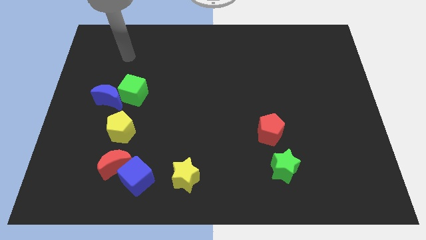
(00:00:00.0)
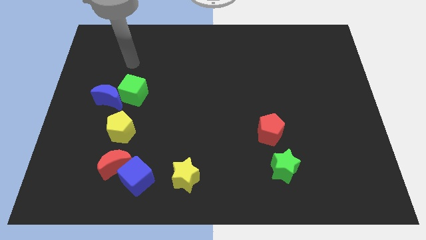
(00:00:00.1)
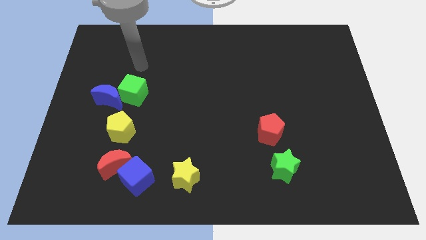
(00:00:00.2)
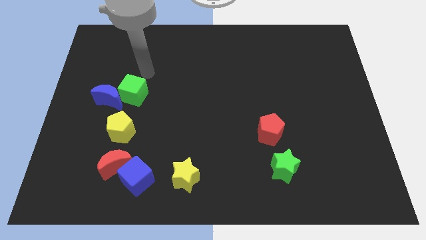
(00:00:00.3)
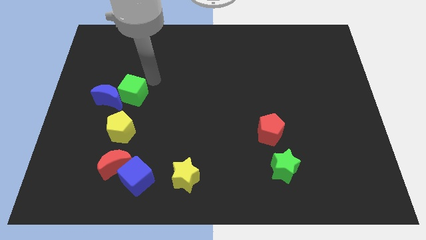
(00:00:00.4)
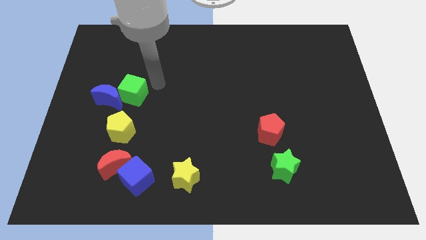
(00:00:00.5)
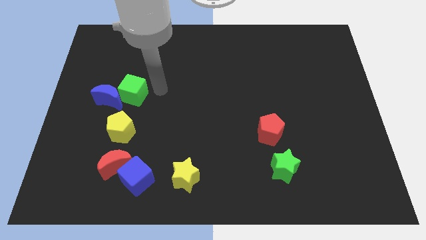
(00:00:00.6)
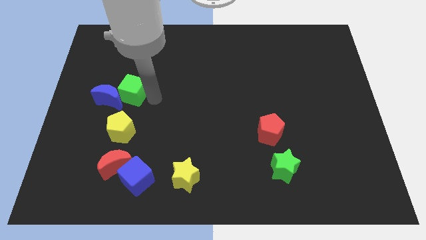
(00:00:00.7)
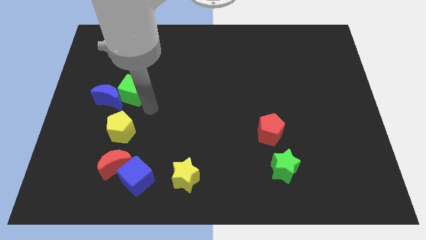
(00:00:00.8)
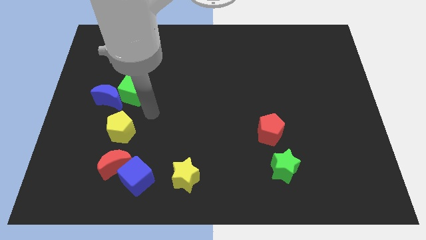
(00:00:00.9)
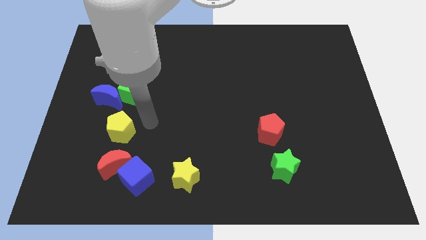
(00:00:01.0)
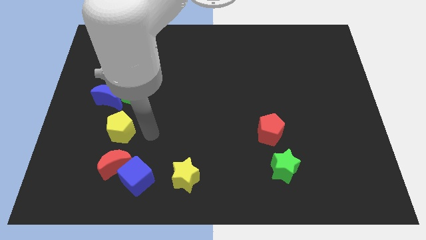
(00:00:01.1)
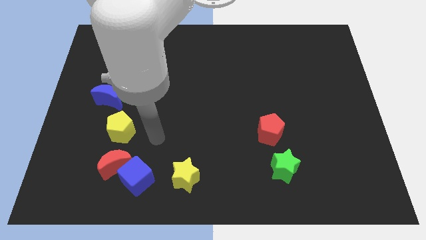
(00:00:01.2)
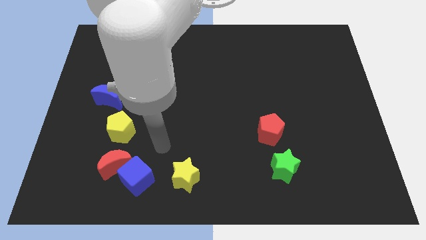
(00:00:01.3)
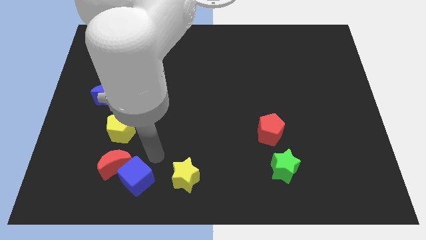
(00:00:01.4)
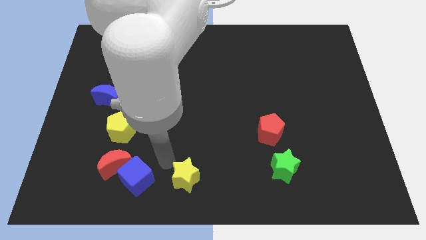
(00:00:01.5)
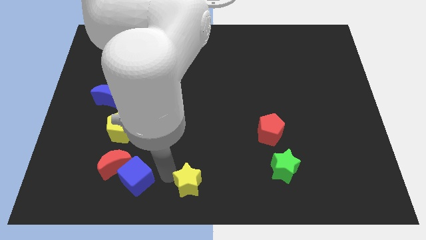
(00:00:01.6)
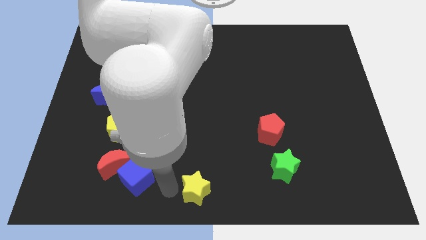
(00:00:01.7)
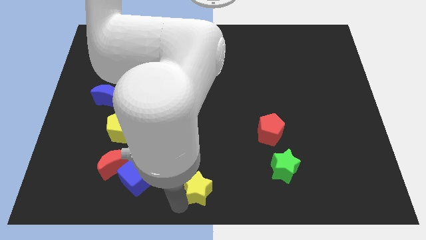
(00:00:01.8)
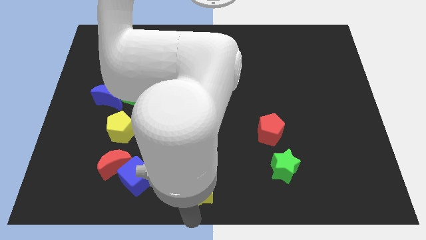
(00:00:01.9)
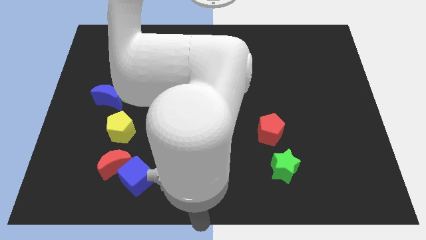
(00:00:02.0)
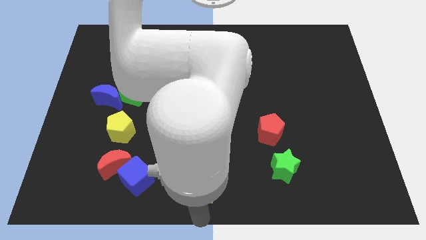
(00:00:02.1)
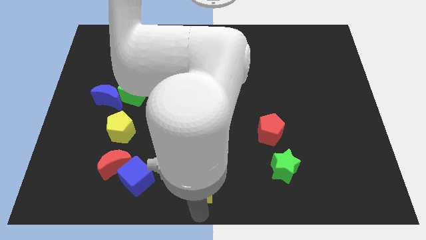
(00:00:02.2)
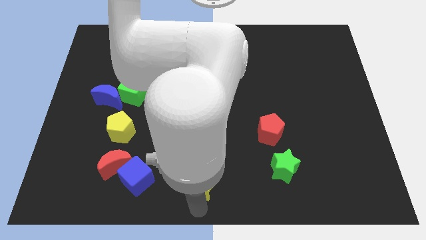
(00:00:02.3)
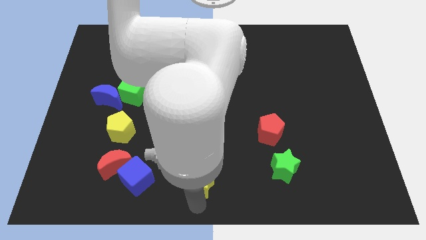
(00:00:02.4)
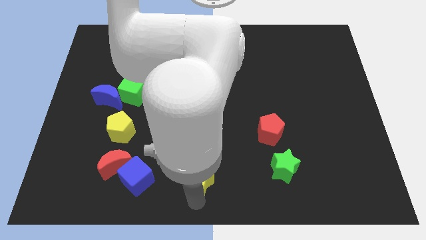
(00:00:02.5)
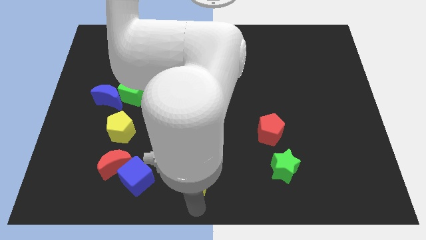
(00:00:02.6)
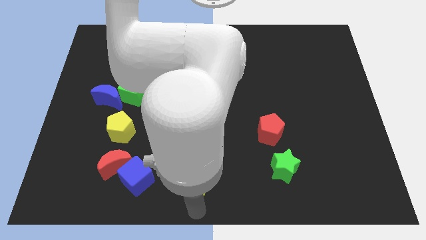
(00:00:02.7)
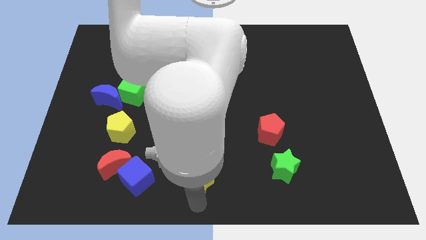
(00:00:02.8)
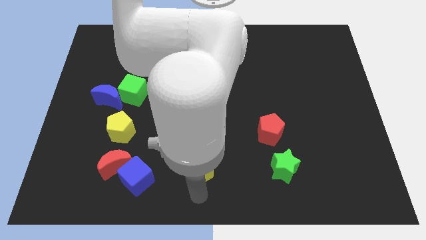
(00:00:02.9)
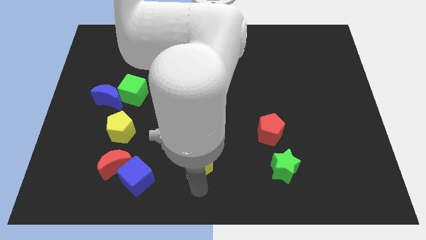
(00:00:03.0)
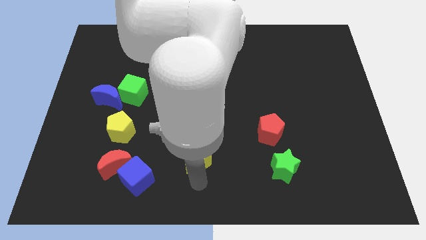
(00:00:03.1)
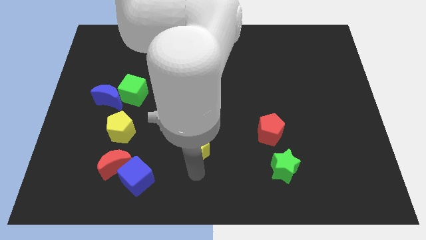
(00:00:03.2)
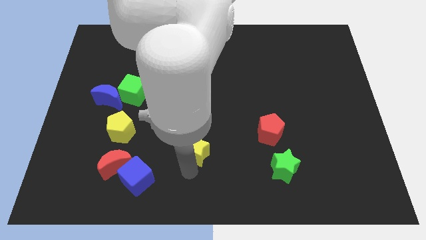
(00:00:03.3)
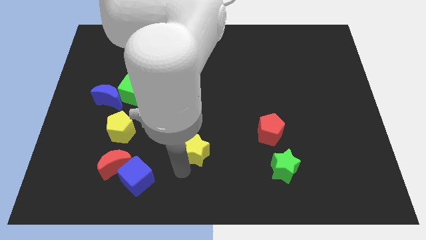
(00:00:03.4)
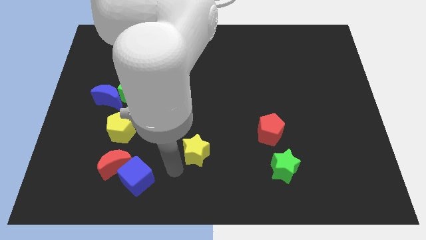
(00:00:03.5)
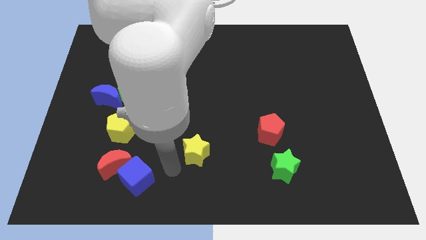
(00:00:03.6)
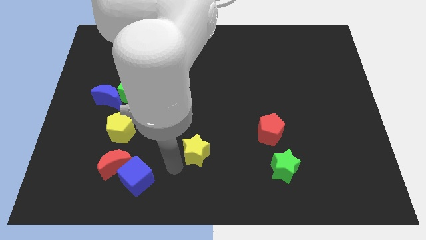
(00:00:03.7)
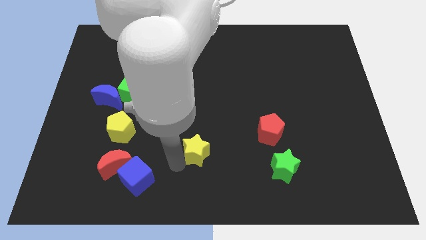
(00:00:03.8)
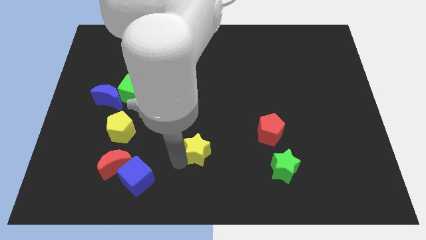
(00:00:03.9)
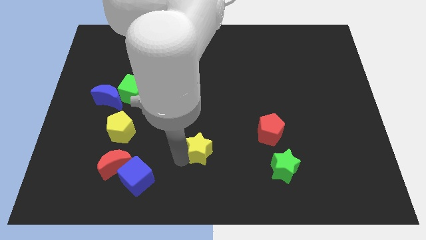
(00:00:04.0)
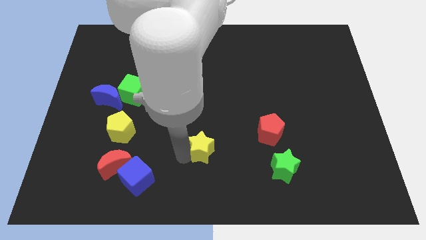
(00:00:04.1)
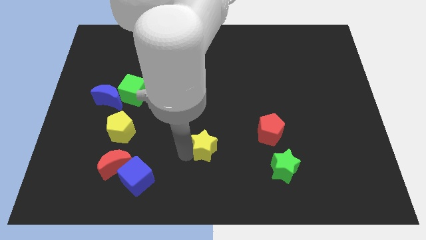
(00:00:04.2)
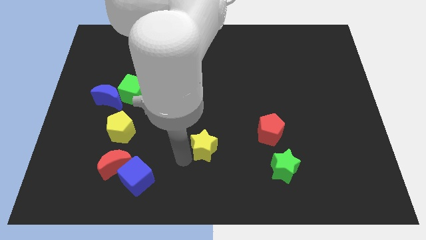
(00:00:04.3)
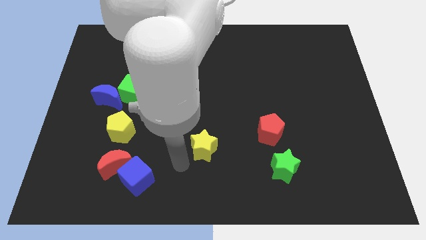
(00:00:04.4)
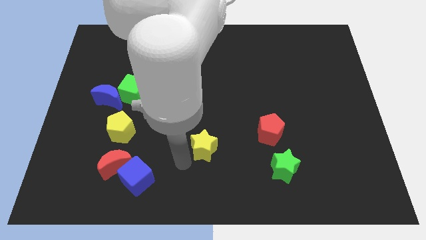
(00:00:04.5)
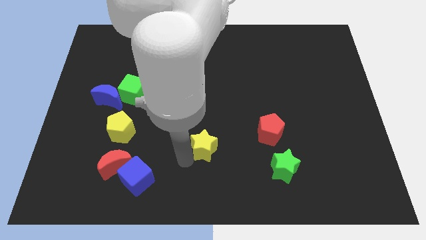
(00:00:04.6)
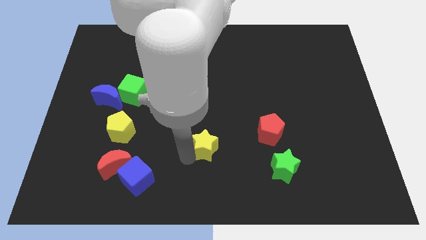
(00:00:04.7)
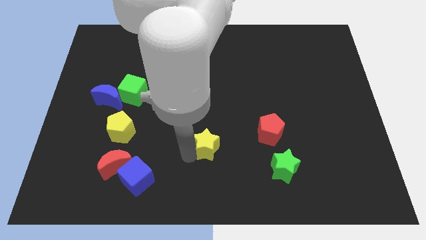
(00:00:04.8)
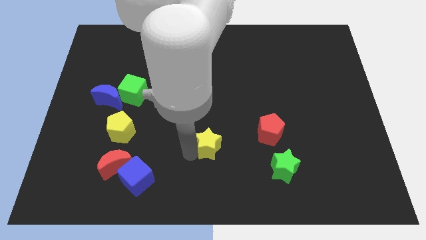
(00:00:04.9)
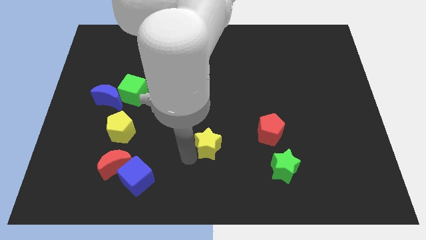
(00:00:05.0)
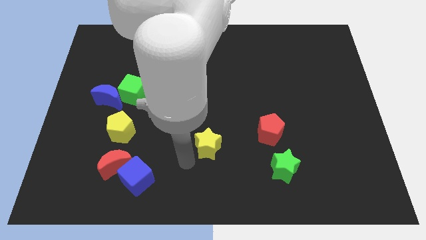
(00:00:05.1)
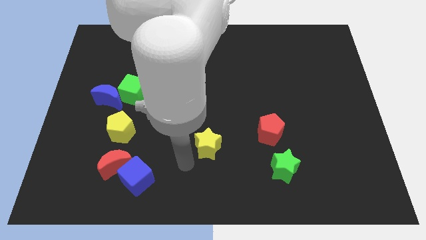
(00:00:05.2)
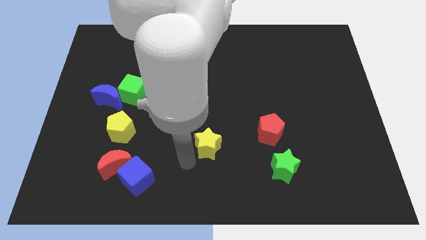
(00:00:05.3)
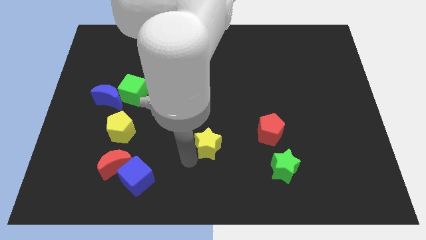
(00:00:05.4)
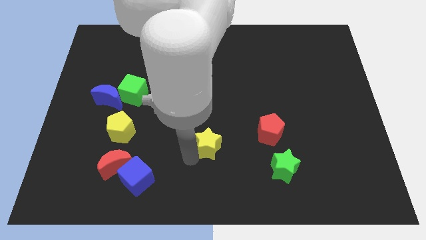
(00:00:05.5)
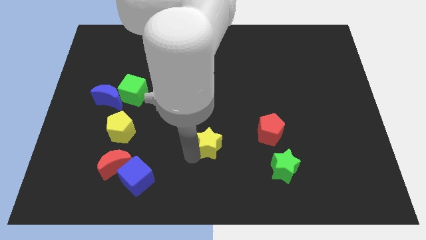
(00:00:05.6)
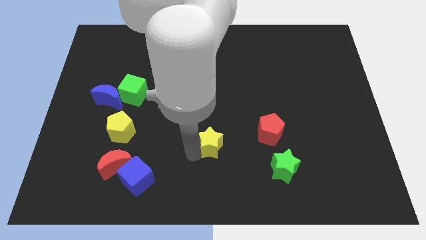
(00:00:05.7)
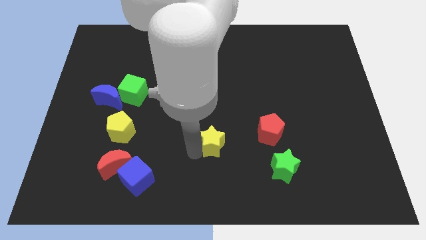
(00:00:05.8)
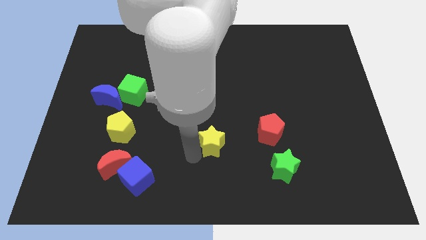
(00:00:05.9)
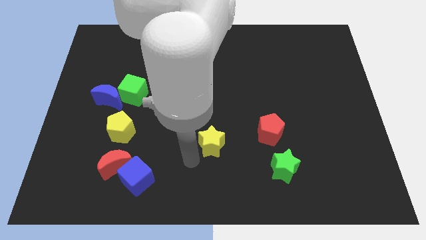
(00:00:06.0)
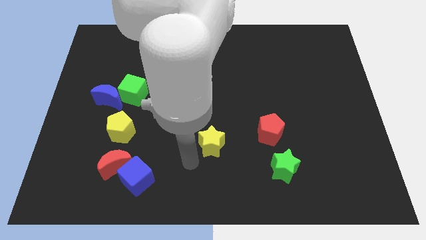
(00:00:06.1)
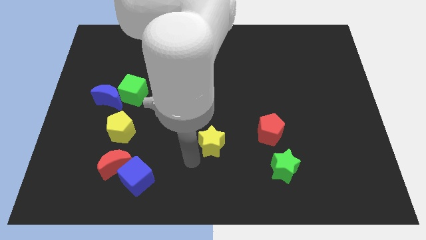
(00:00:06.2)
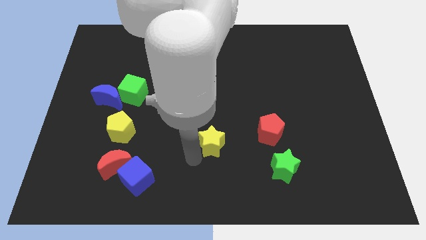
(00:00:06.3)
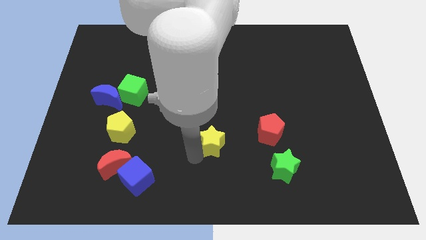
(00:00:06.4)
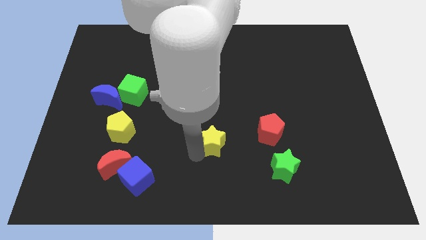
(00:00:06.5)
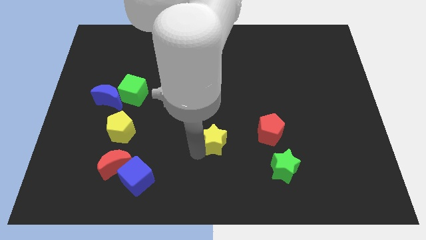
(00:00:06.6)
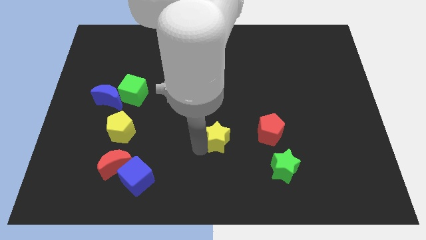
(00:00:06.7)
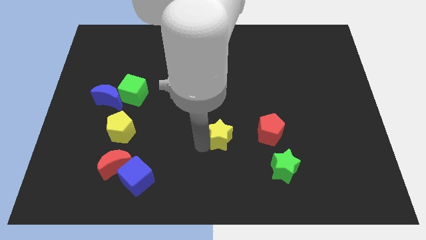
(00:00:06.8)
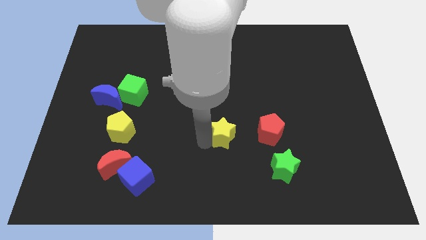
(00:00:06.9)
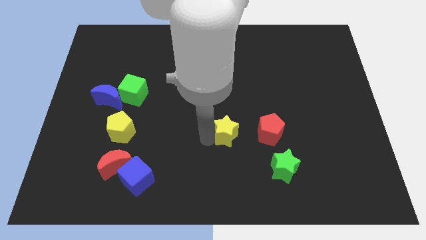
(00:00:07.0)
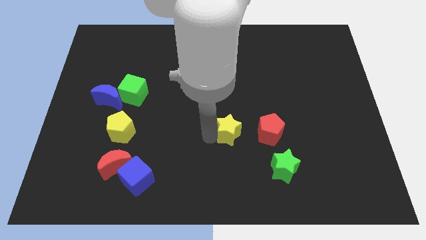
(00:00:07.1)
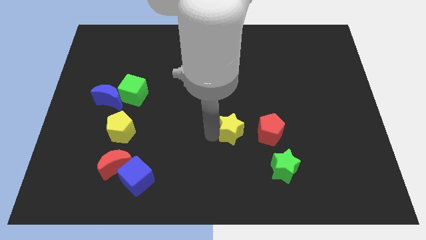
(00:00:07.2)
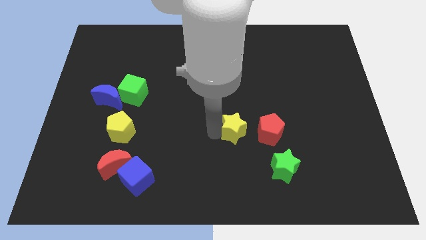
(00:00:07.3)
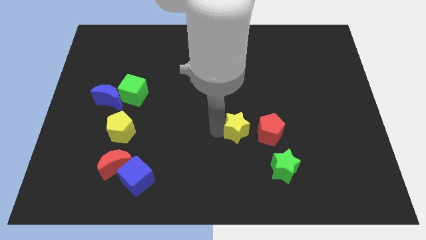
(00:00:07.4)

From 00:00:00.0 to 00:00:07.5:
put the yellow star diagonally up and to the left of the red pentagon
